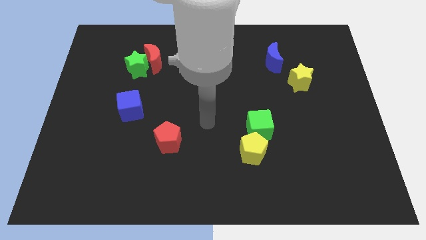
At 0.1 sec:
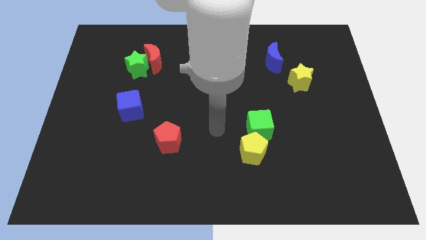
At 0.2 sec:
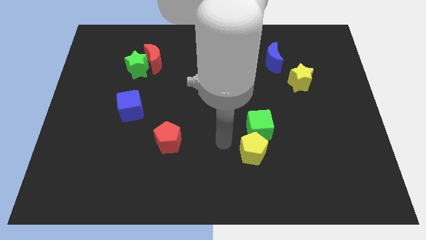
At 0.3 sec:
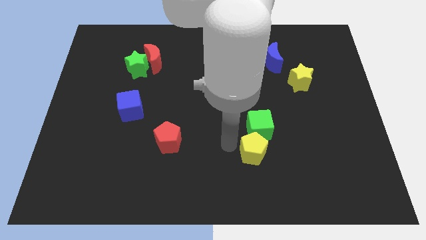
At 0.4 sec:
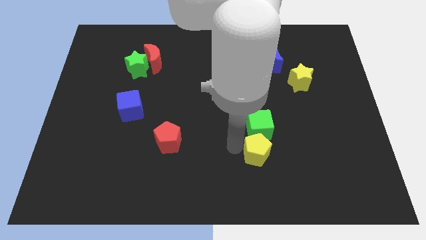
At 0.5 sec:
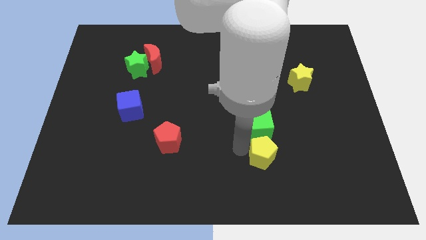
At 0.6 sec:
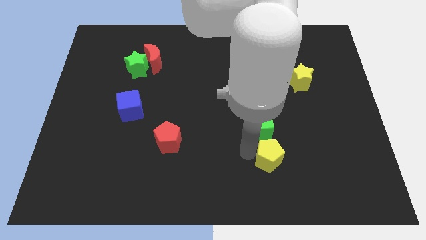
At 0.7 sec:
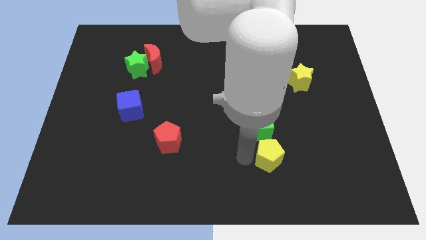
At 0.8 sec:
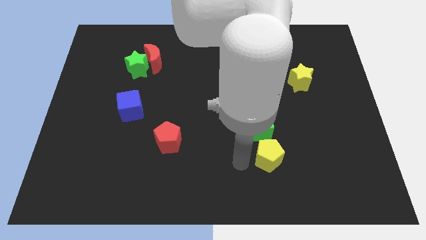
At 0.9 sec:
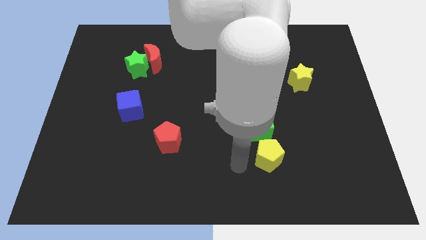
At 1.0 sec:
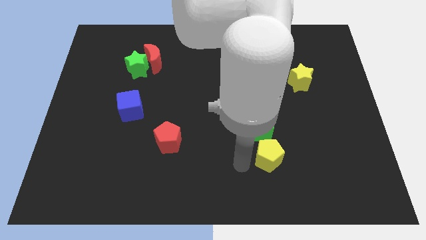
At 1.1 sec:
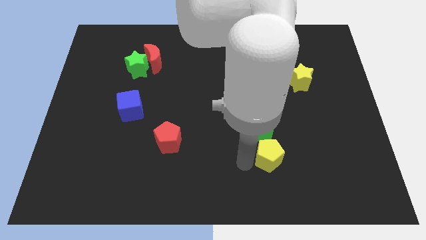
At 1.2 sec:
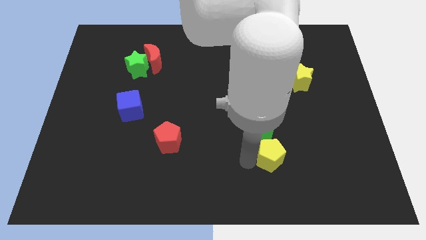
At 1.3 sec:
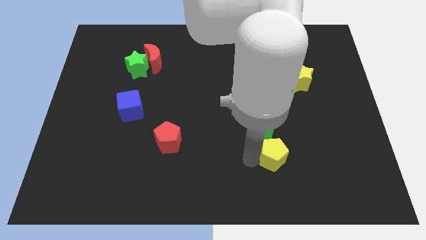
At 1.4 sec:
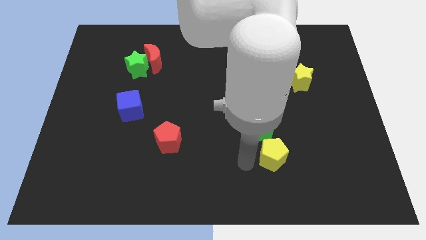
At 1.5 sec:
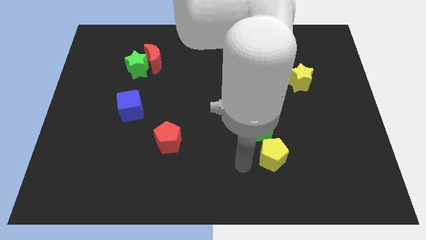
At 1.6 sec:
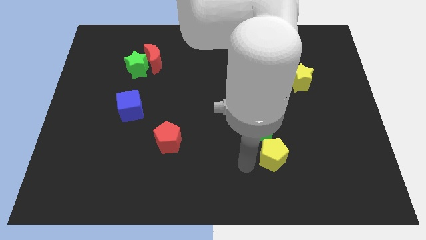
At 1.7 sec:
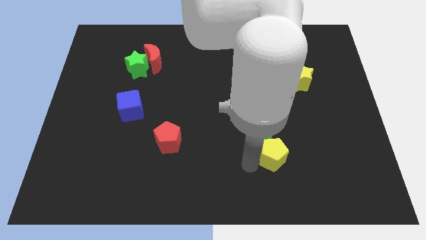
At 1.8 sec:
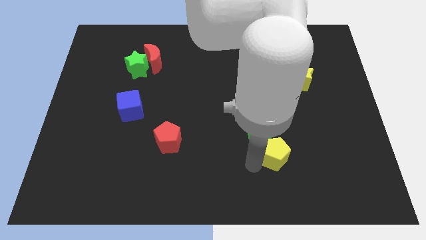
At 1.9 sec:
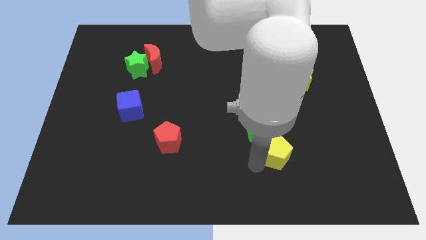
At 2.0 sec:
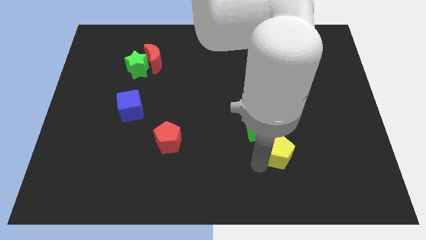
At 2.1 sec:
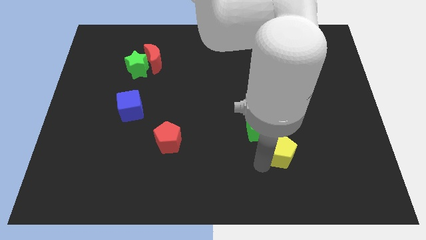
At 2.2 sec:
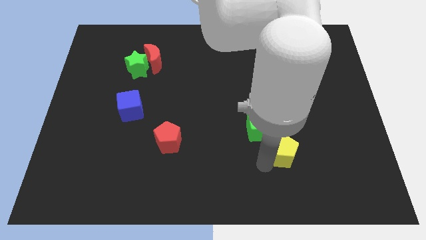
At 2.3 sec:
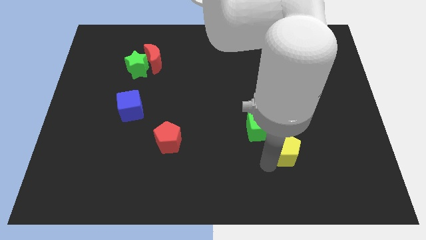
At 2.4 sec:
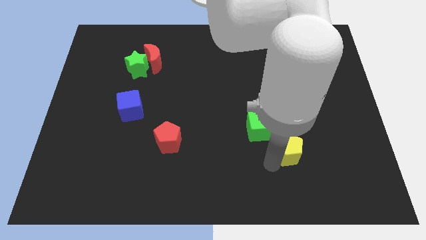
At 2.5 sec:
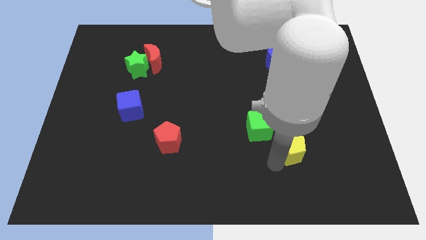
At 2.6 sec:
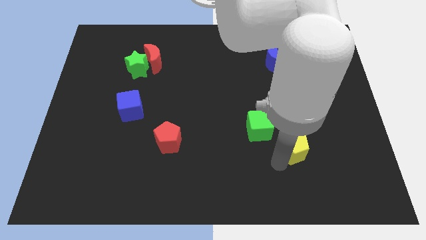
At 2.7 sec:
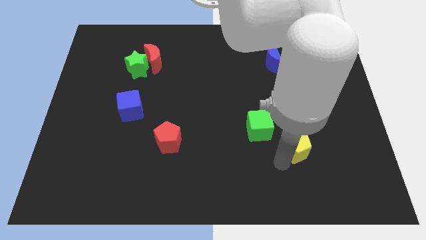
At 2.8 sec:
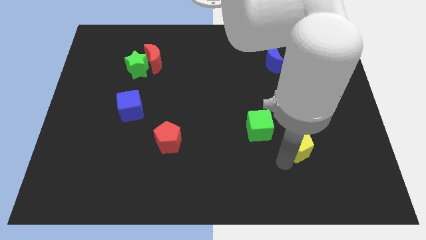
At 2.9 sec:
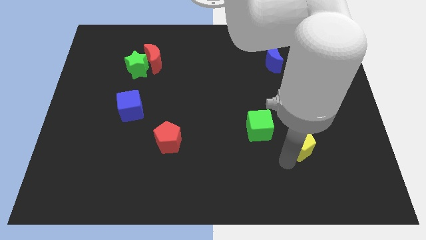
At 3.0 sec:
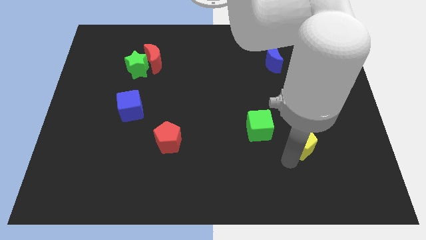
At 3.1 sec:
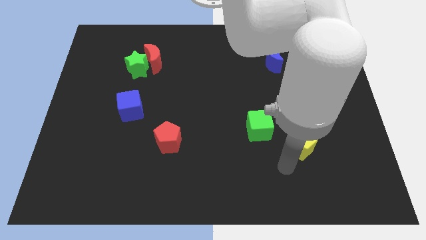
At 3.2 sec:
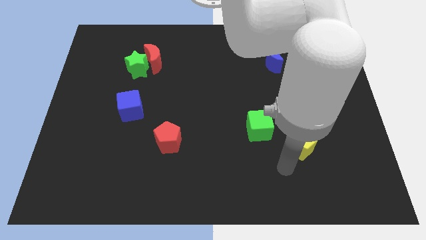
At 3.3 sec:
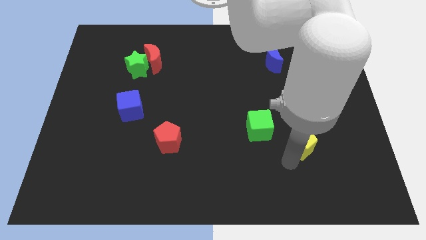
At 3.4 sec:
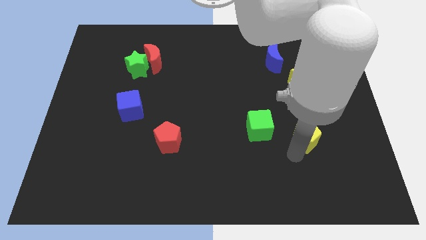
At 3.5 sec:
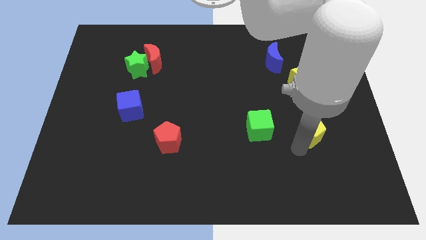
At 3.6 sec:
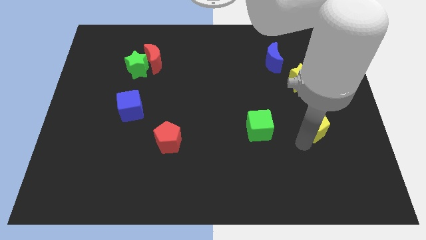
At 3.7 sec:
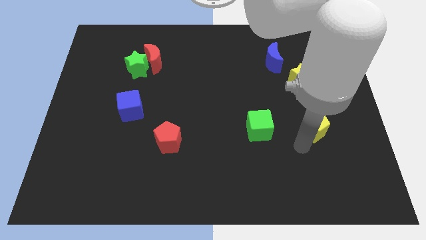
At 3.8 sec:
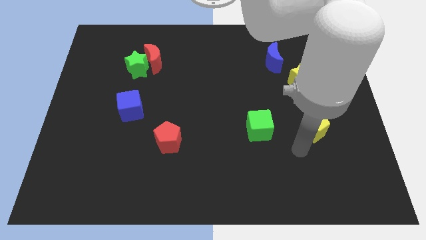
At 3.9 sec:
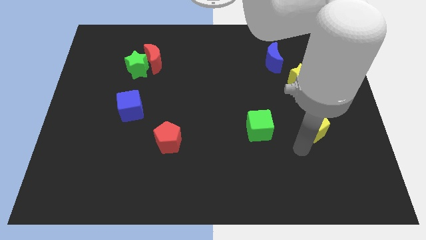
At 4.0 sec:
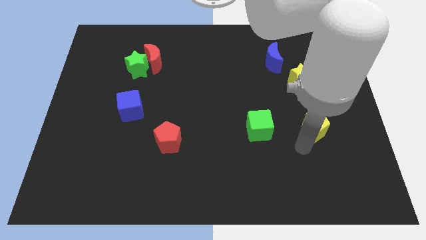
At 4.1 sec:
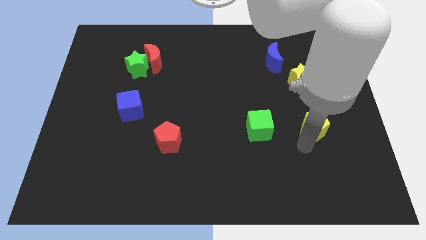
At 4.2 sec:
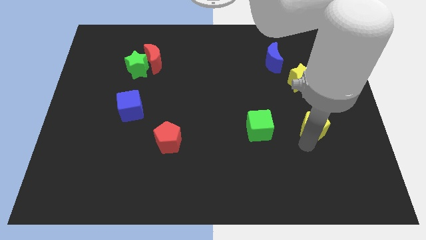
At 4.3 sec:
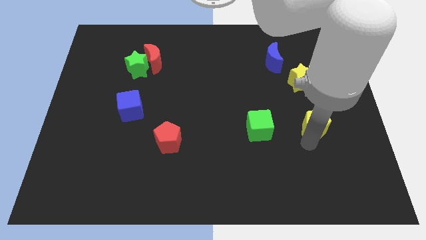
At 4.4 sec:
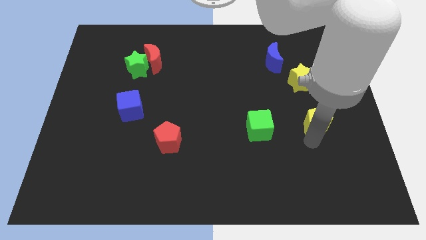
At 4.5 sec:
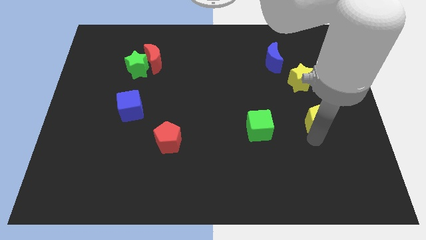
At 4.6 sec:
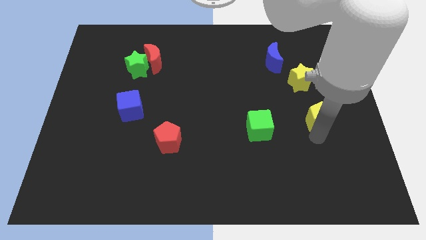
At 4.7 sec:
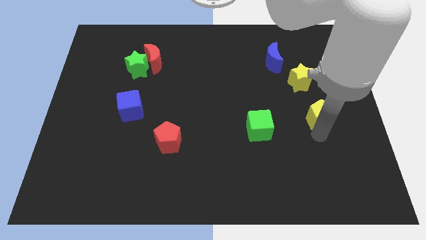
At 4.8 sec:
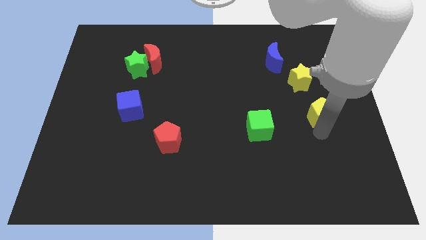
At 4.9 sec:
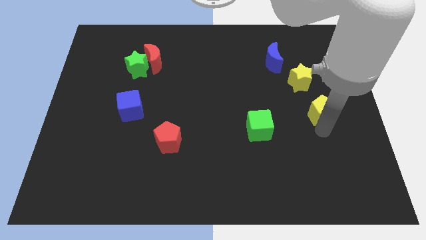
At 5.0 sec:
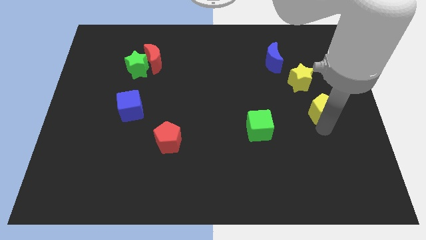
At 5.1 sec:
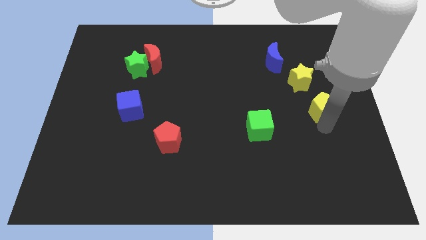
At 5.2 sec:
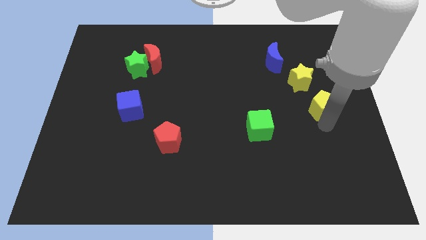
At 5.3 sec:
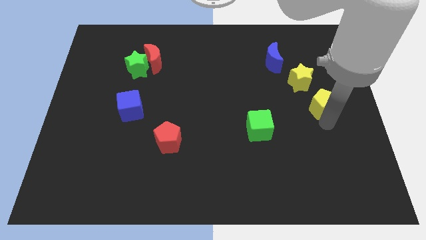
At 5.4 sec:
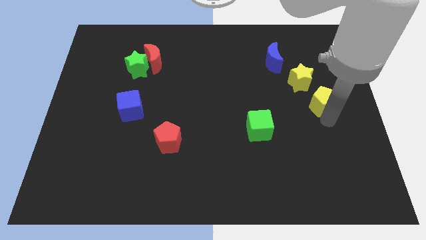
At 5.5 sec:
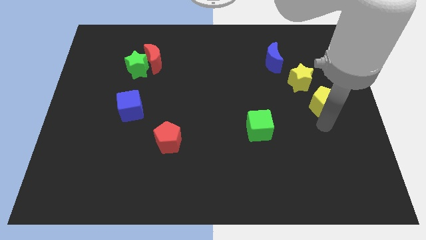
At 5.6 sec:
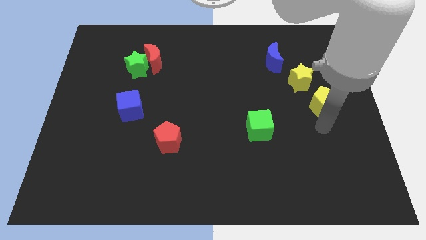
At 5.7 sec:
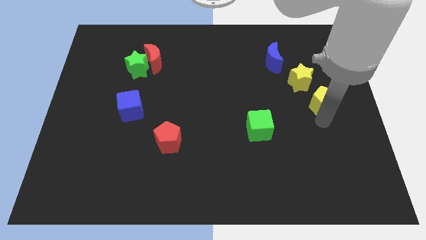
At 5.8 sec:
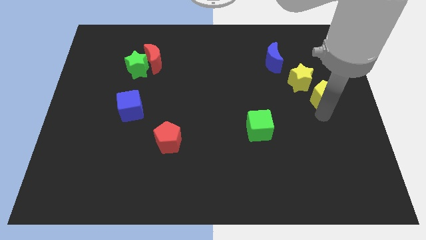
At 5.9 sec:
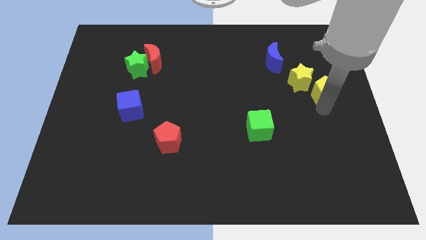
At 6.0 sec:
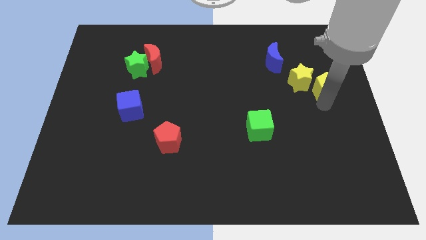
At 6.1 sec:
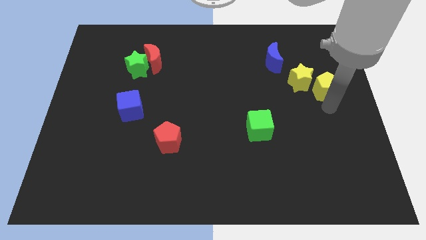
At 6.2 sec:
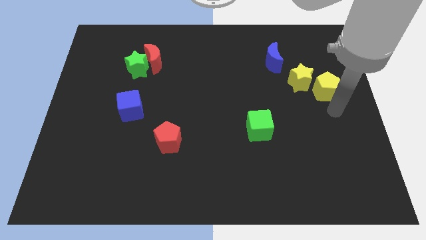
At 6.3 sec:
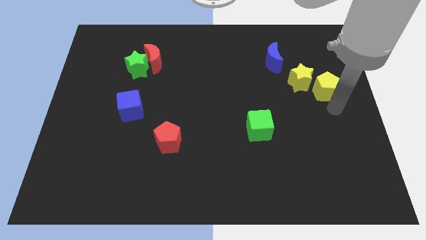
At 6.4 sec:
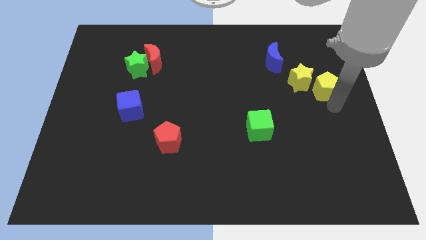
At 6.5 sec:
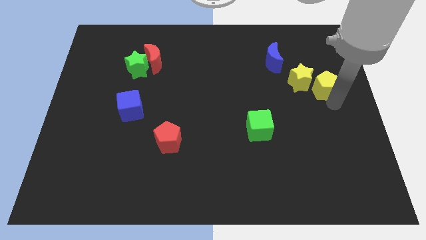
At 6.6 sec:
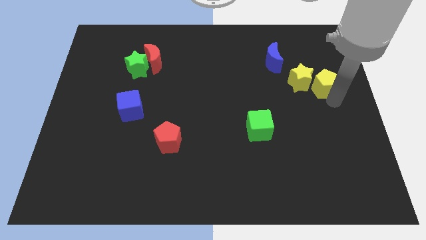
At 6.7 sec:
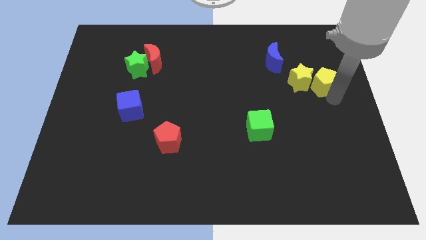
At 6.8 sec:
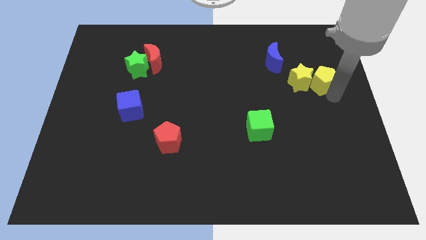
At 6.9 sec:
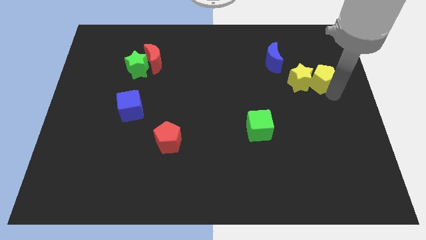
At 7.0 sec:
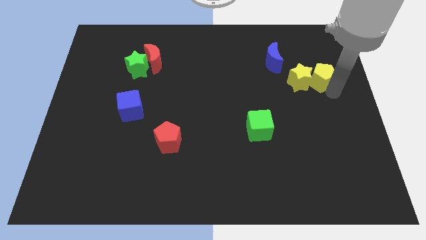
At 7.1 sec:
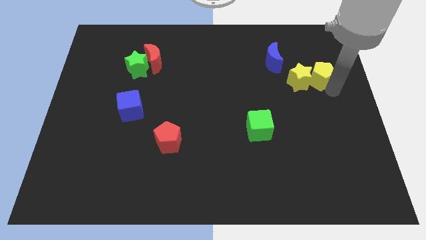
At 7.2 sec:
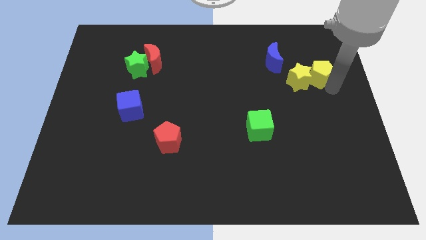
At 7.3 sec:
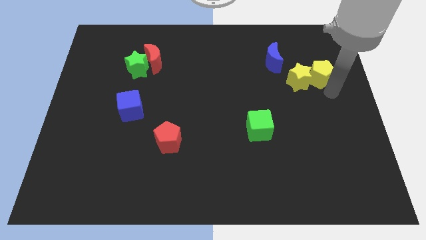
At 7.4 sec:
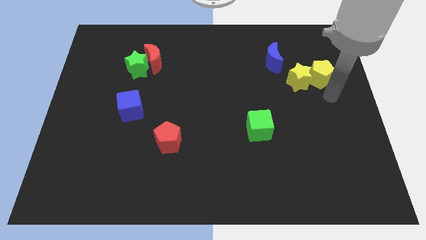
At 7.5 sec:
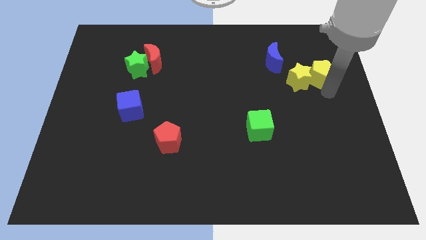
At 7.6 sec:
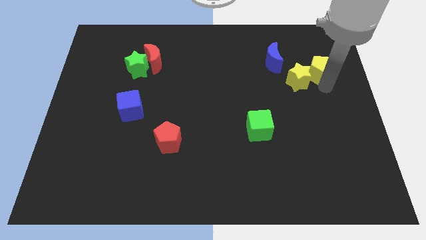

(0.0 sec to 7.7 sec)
move the yellow pentagon right of the blue moon

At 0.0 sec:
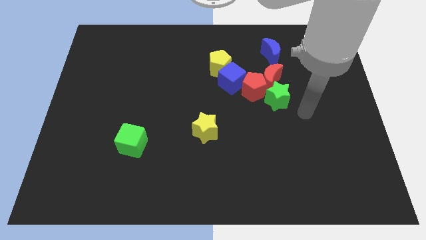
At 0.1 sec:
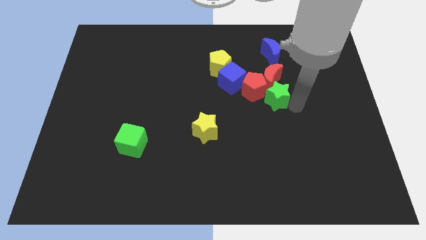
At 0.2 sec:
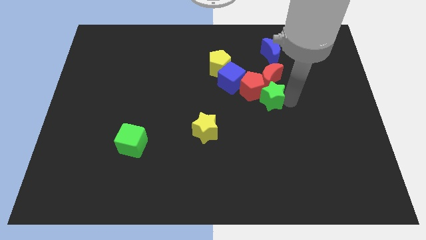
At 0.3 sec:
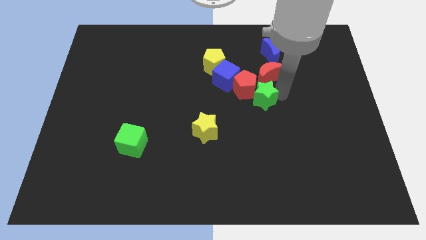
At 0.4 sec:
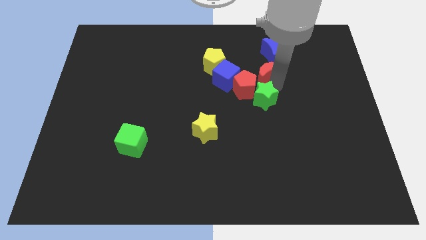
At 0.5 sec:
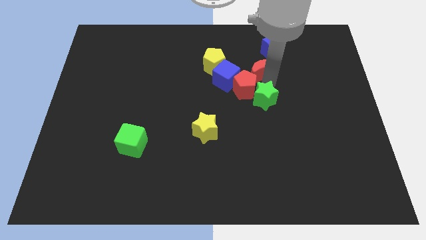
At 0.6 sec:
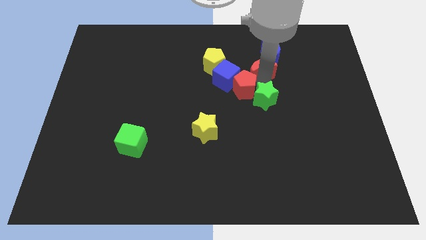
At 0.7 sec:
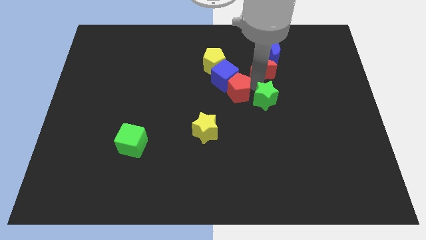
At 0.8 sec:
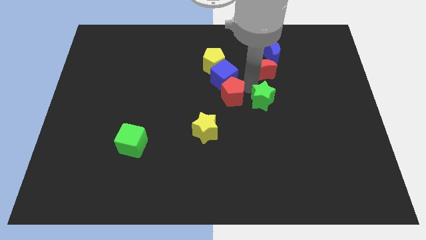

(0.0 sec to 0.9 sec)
put the red pentagon to the bottom side of the yellow pentagon
